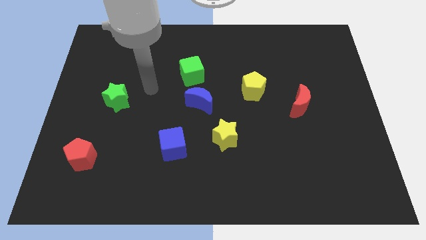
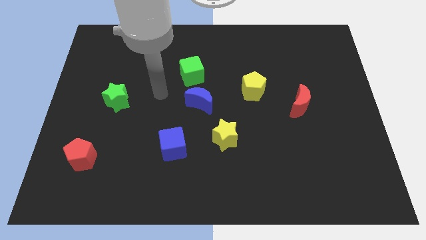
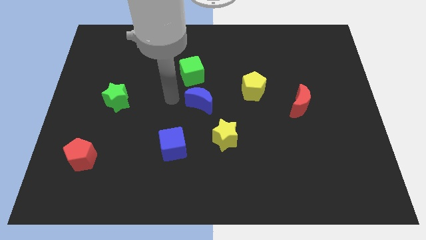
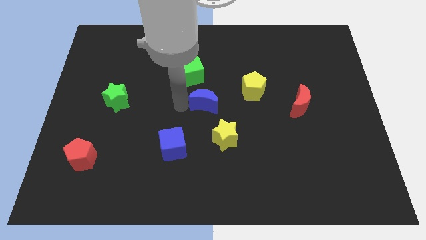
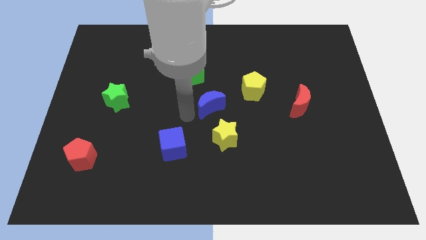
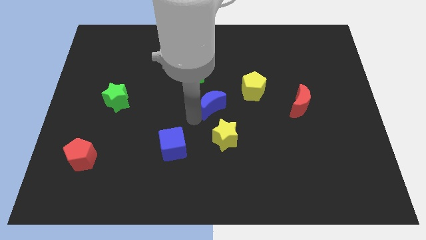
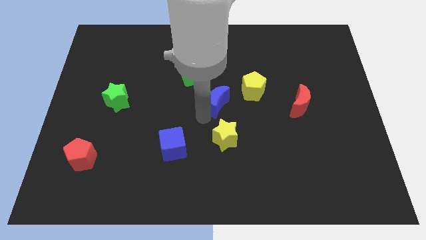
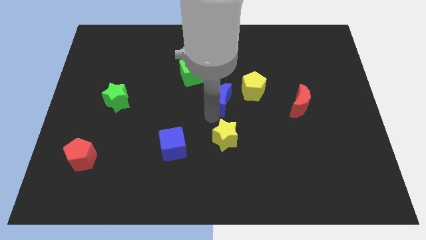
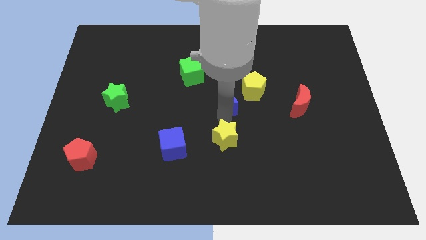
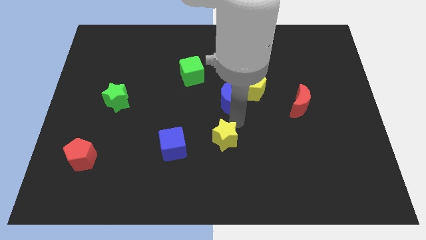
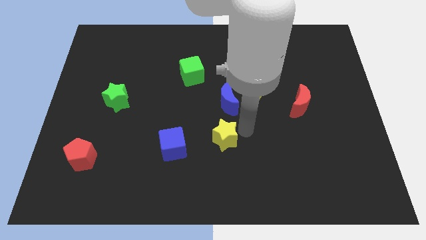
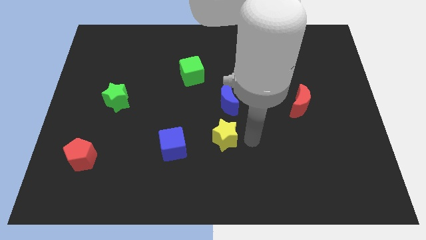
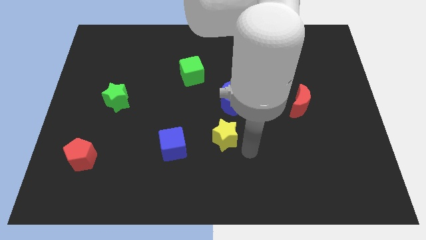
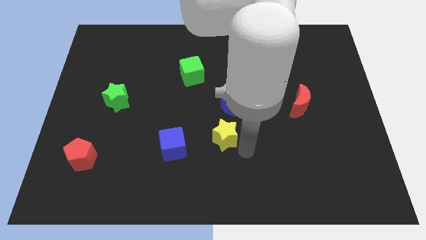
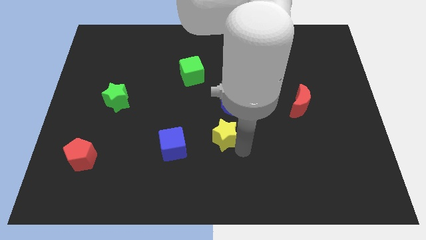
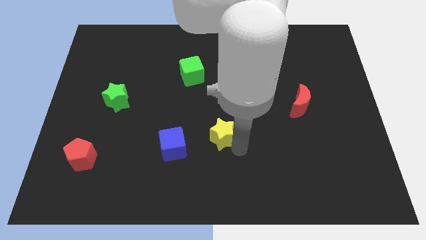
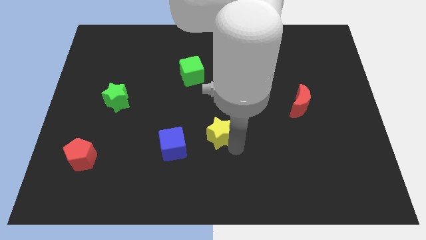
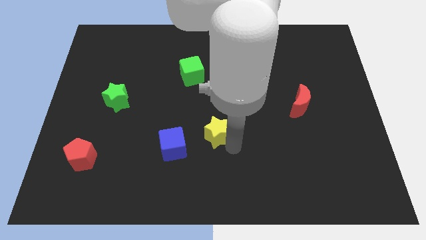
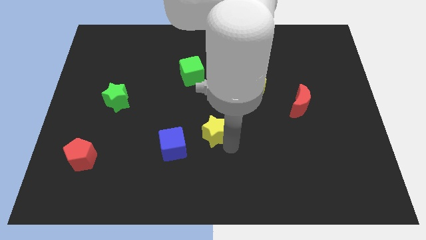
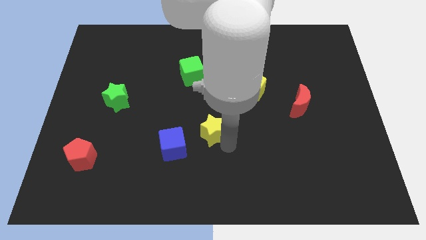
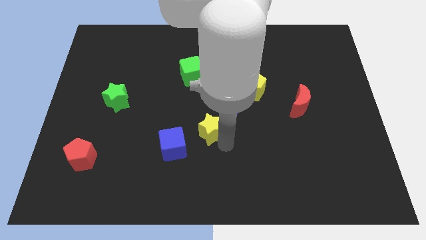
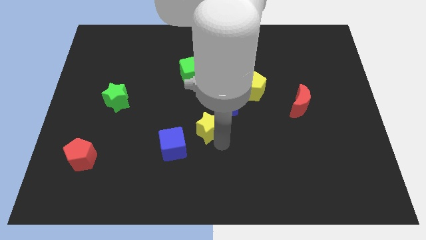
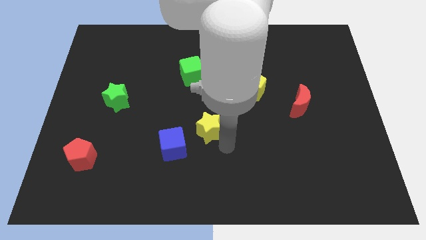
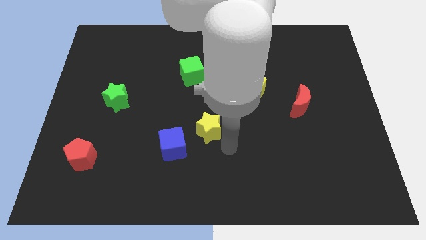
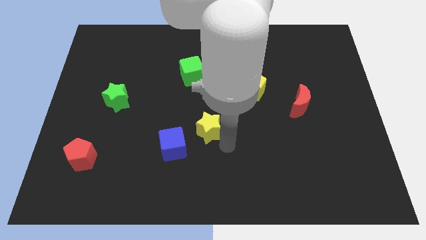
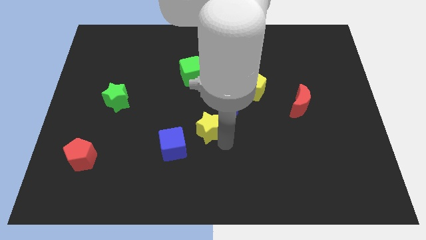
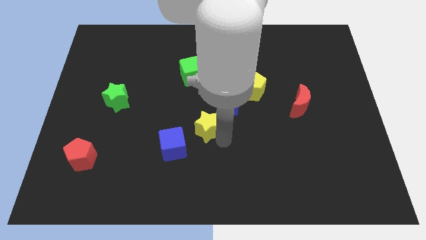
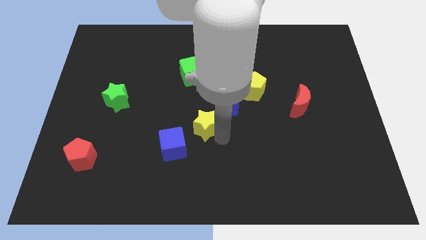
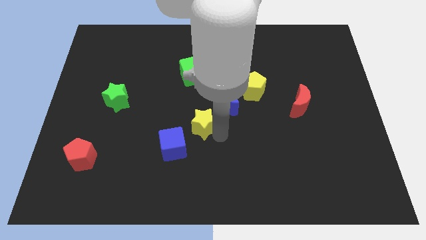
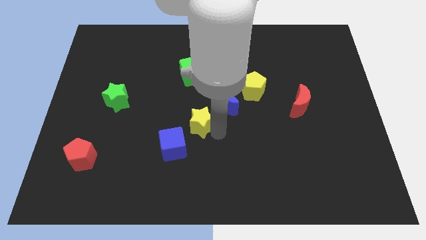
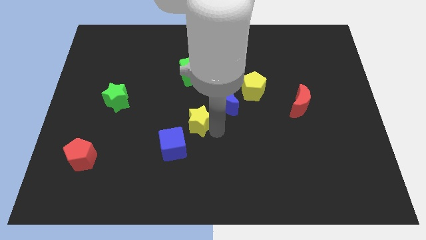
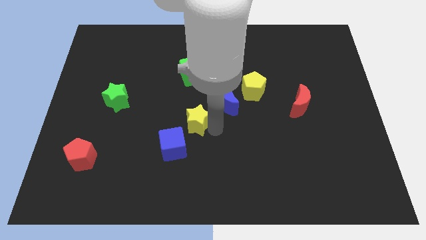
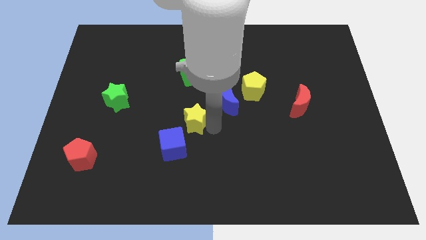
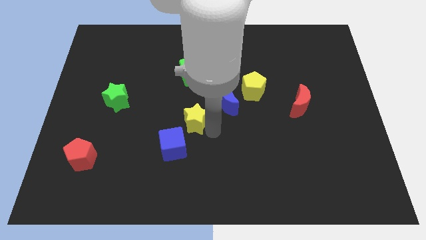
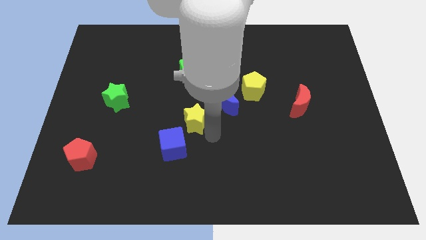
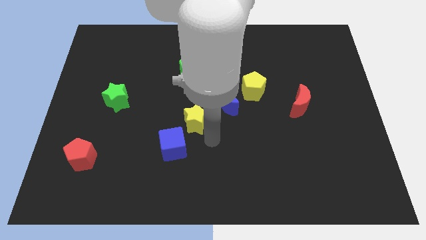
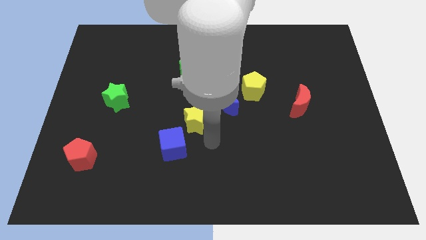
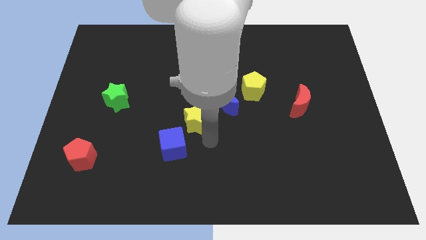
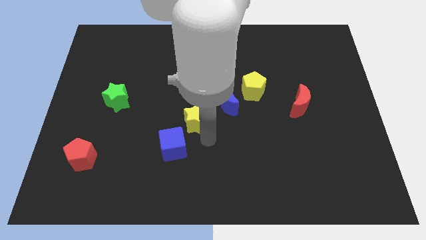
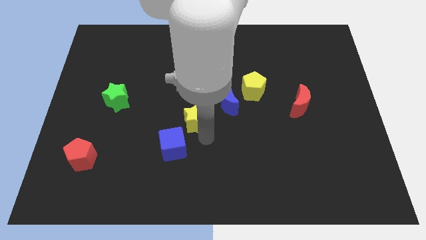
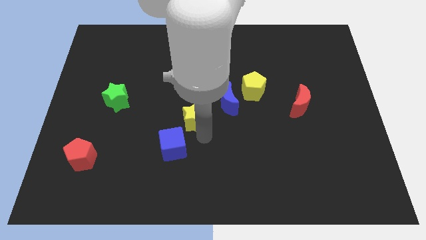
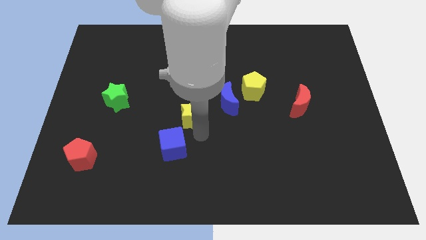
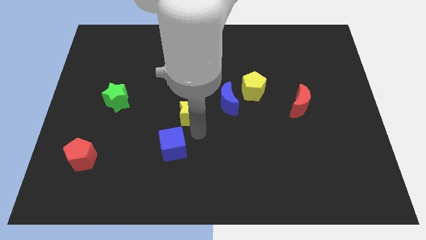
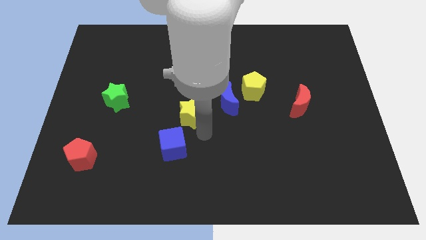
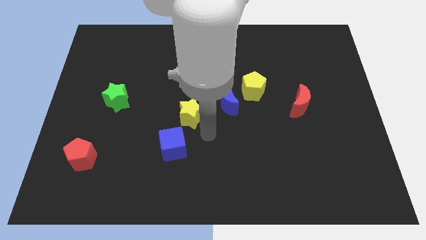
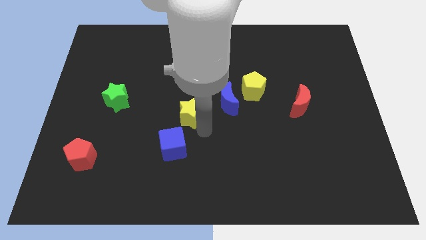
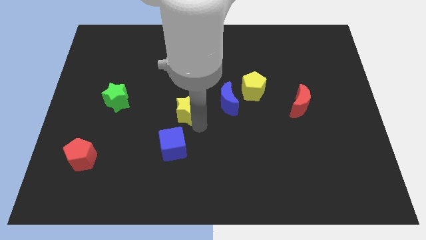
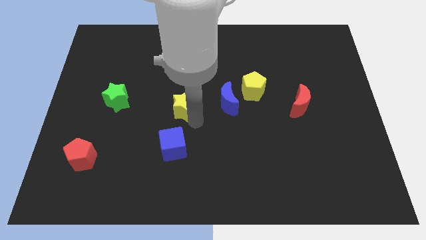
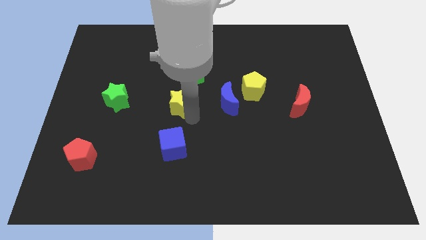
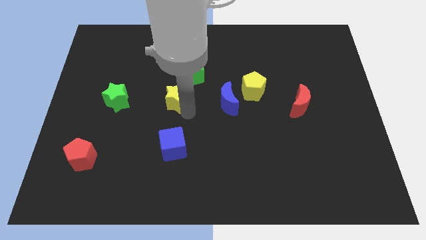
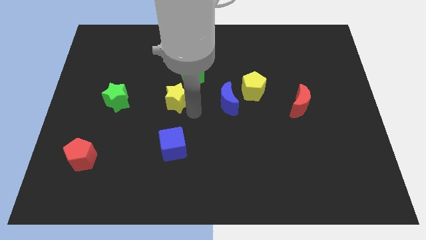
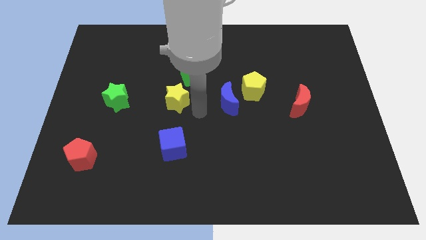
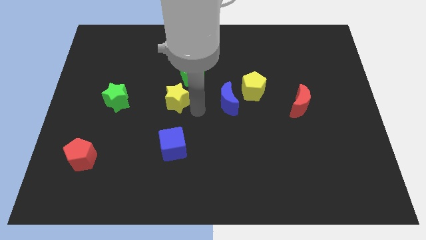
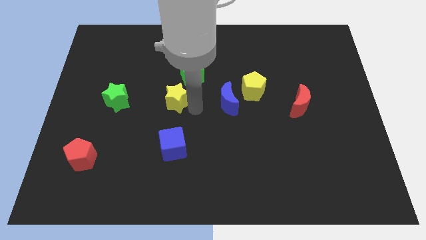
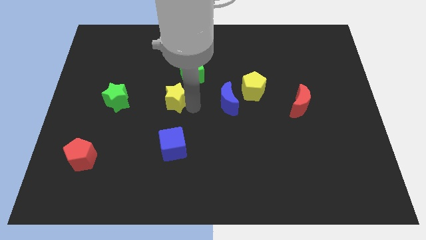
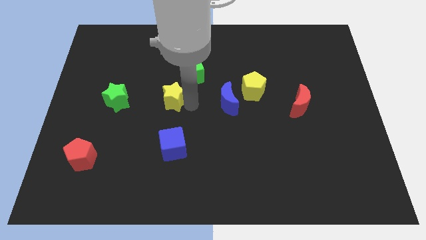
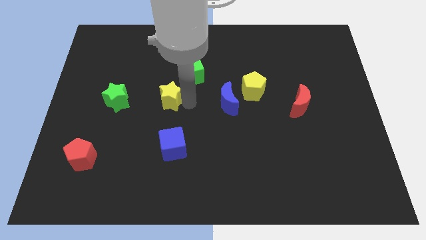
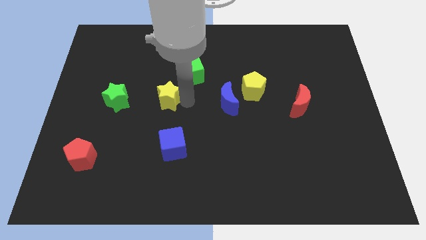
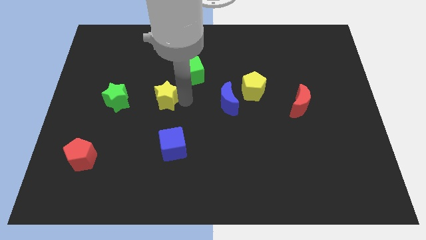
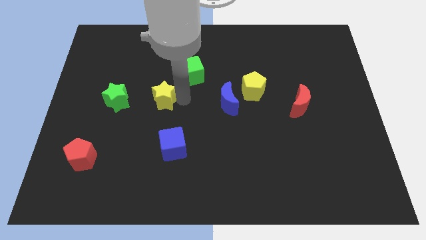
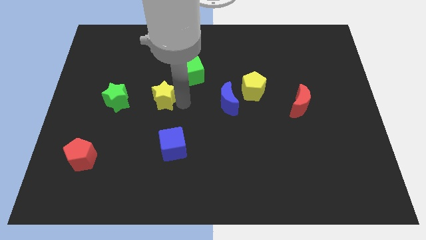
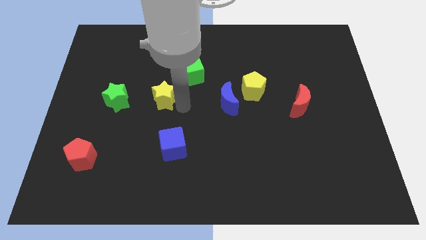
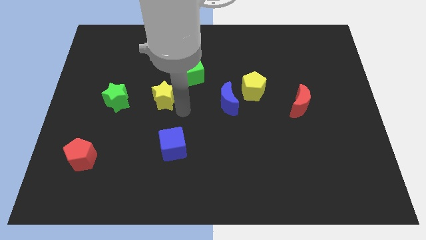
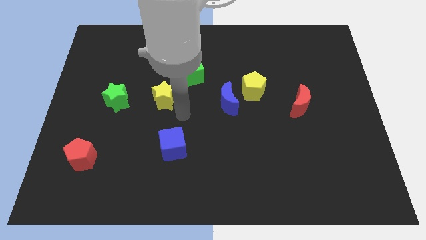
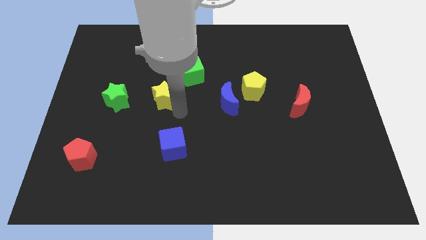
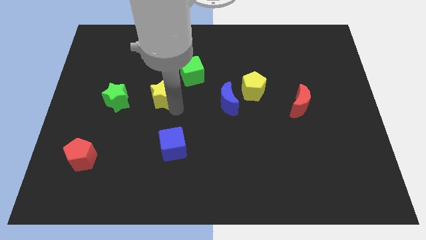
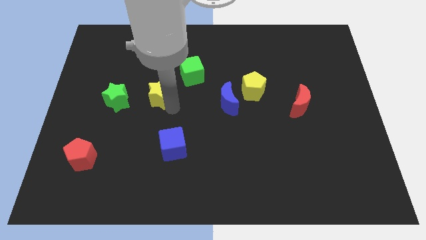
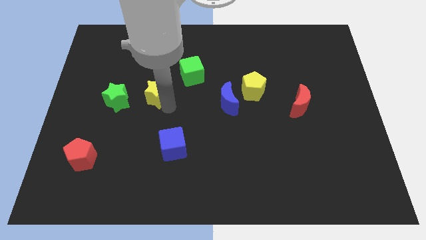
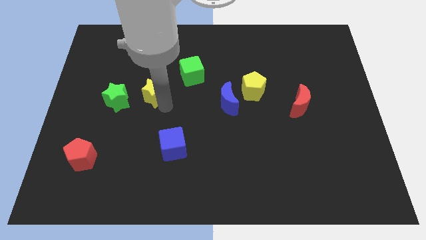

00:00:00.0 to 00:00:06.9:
slide the yellow star diagonally upwards and to the left

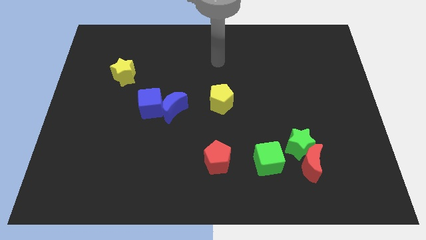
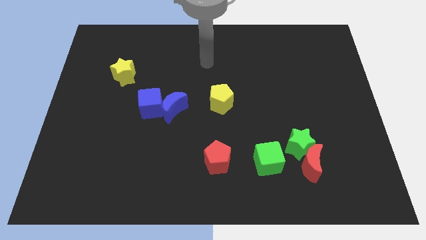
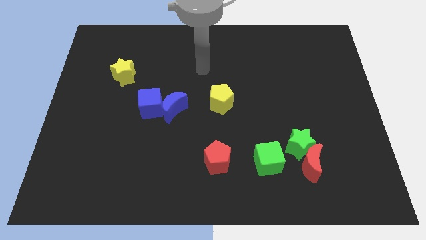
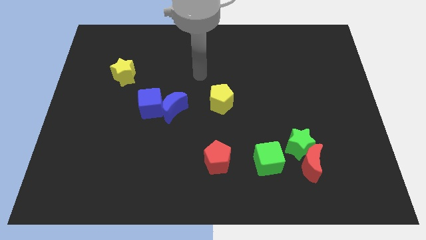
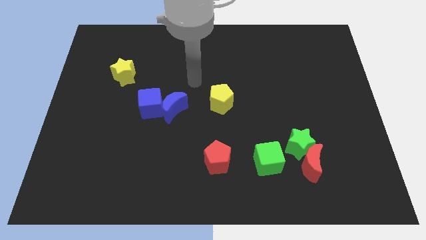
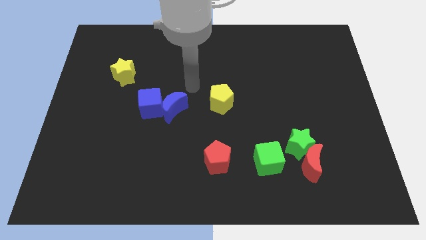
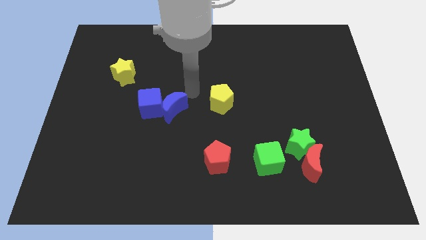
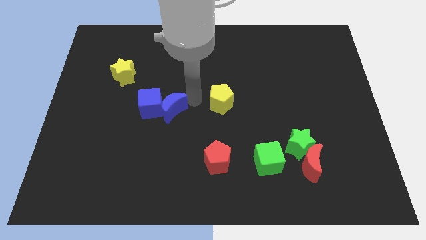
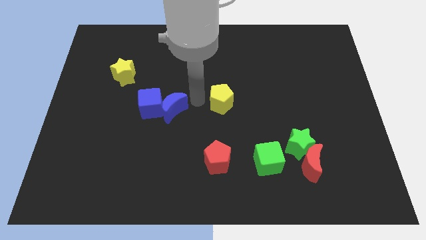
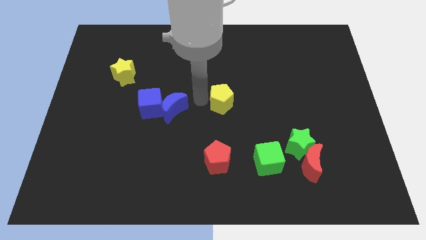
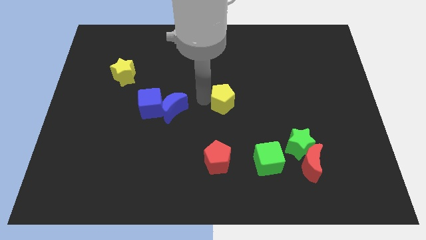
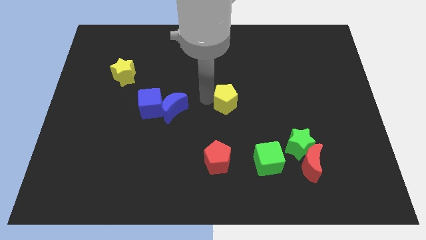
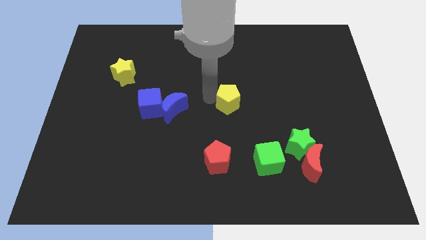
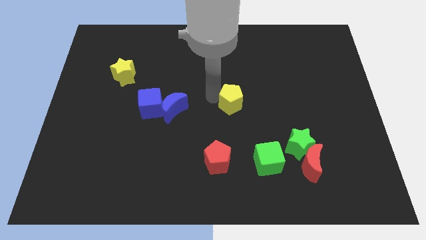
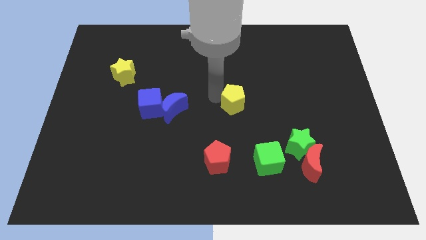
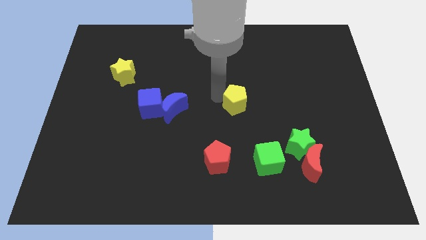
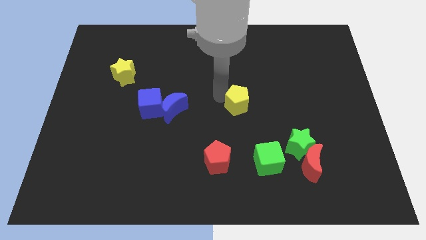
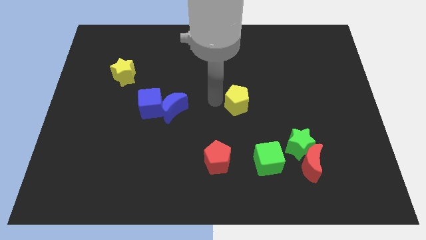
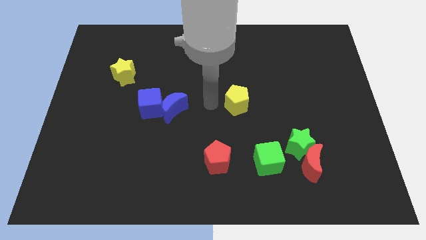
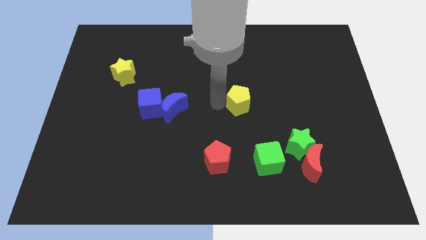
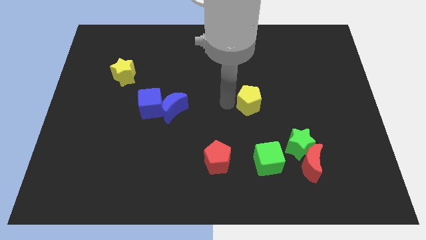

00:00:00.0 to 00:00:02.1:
slide the yellow pentagon somewhat to the right
